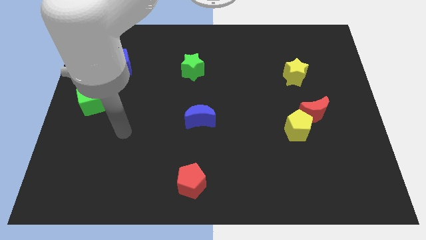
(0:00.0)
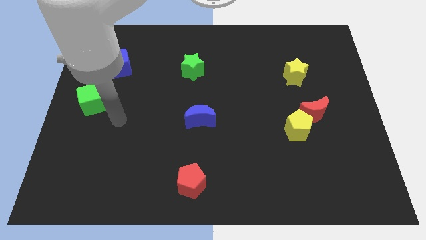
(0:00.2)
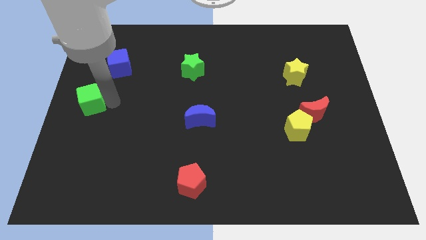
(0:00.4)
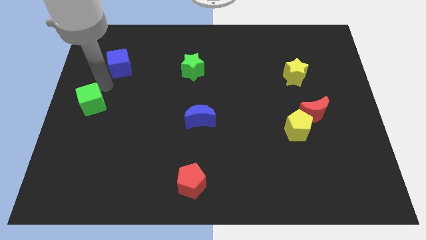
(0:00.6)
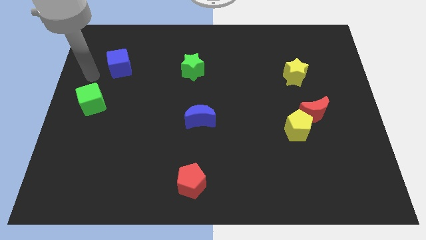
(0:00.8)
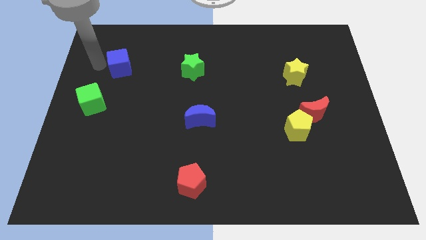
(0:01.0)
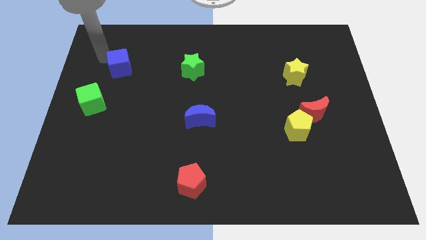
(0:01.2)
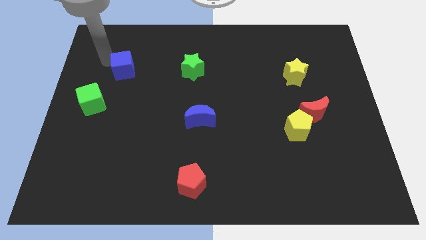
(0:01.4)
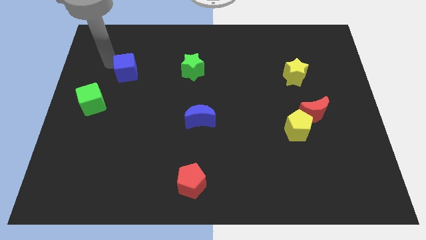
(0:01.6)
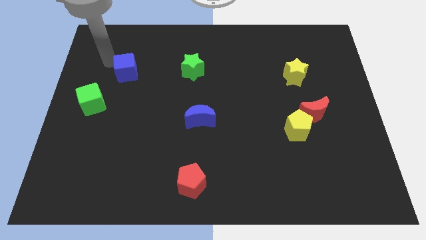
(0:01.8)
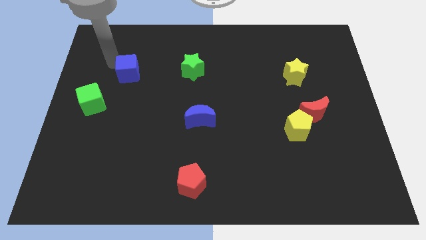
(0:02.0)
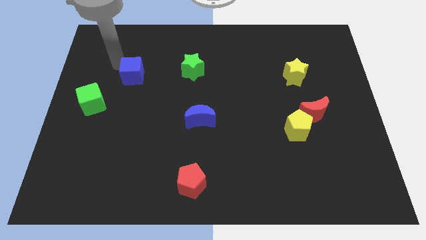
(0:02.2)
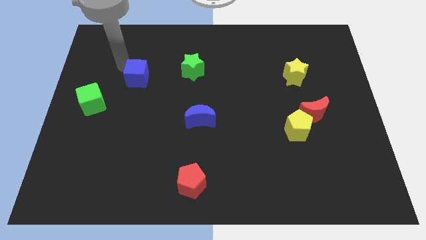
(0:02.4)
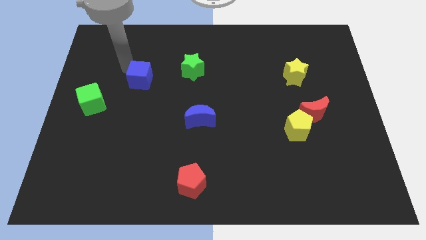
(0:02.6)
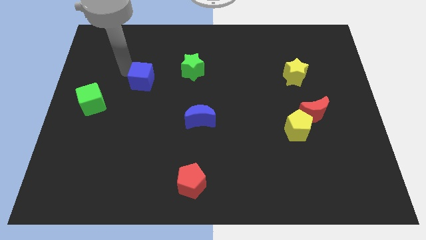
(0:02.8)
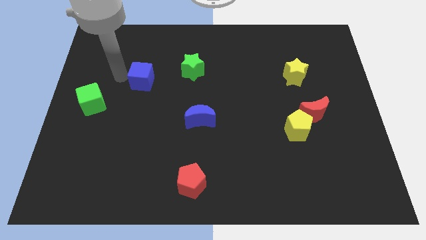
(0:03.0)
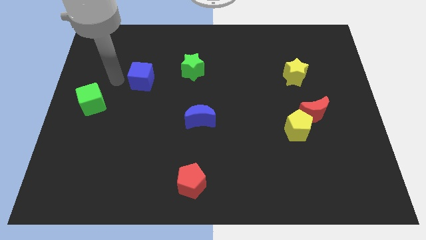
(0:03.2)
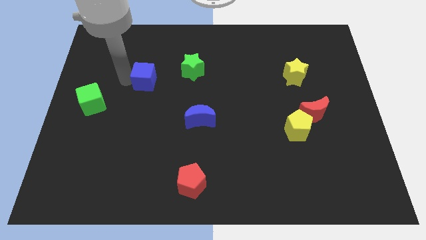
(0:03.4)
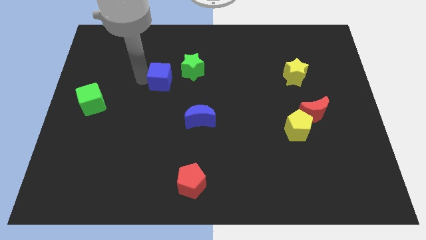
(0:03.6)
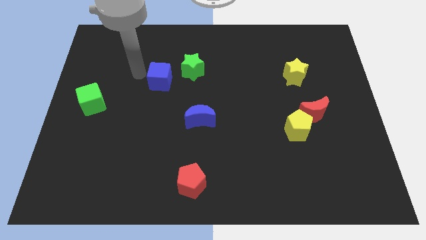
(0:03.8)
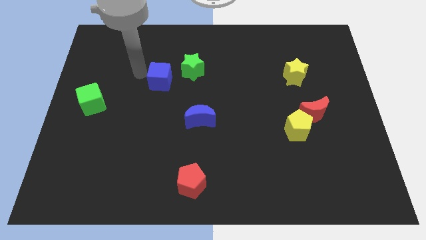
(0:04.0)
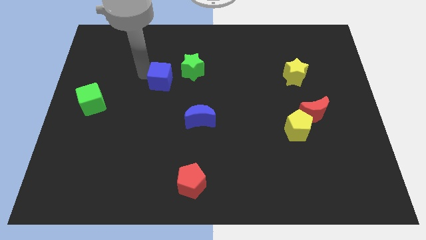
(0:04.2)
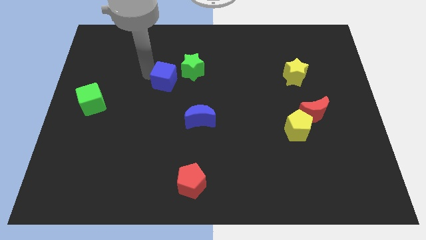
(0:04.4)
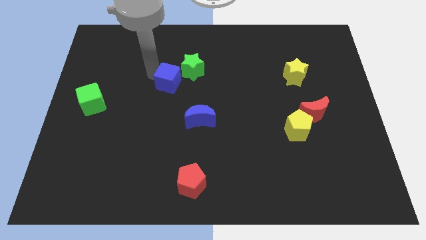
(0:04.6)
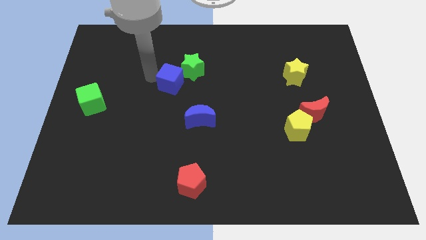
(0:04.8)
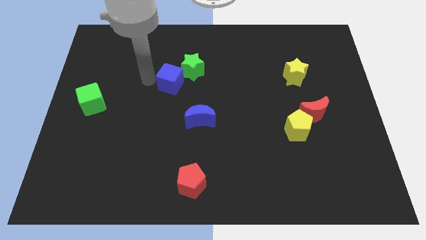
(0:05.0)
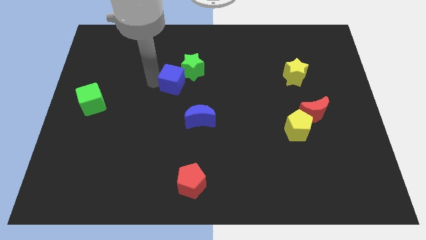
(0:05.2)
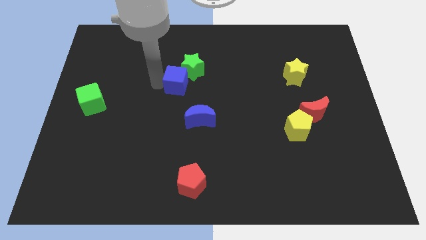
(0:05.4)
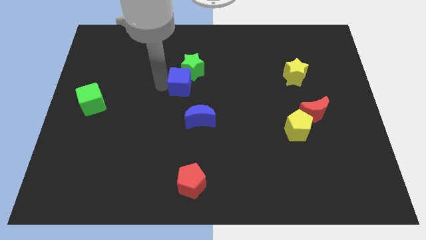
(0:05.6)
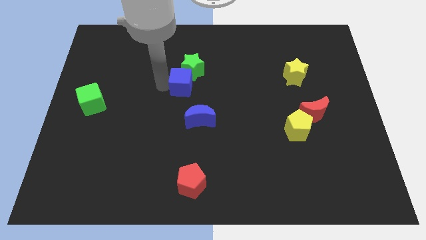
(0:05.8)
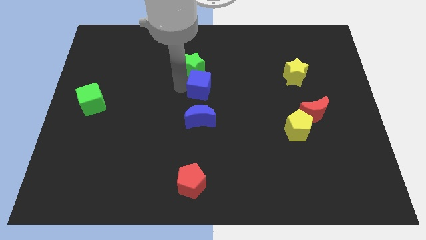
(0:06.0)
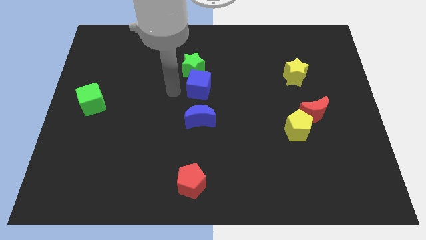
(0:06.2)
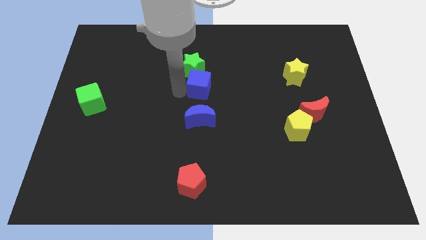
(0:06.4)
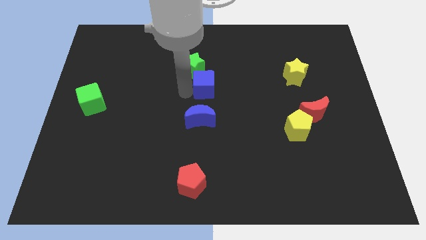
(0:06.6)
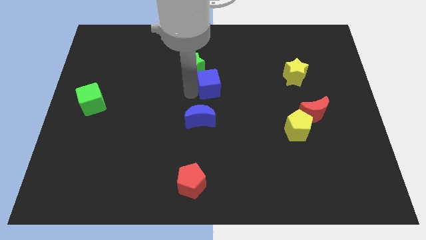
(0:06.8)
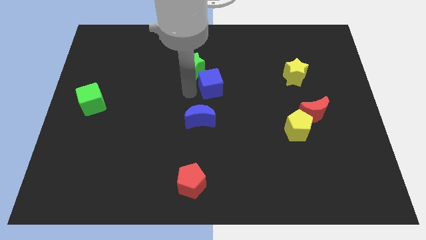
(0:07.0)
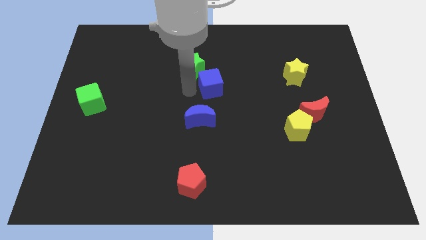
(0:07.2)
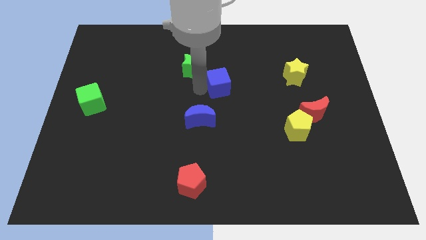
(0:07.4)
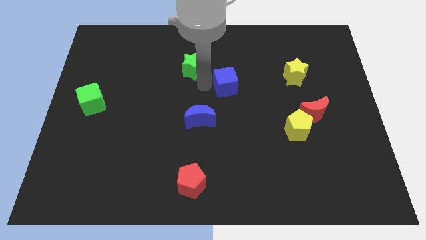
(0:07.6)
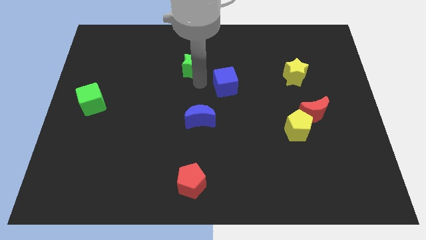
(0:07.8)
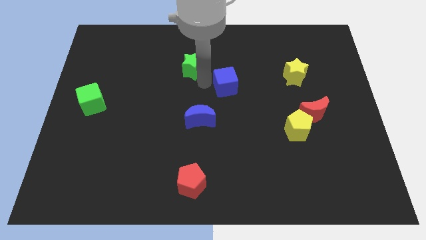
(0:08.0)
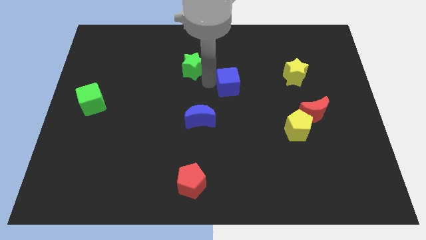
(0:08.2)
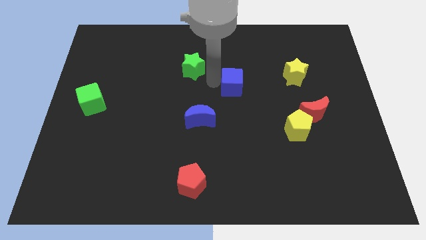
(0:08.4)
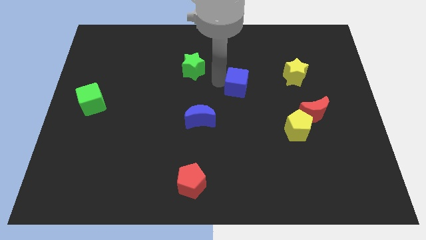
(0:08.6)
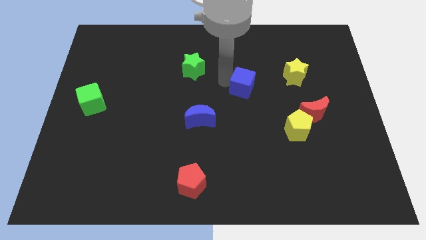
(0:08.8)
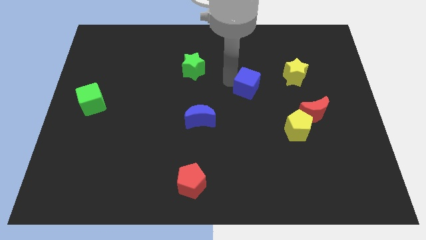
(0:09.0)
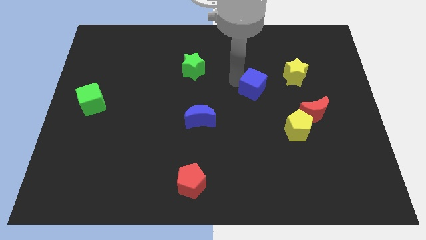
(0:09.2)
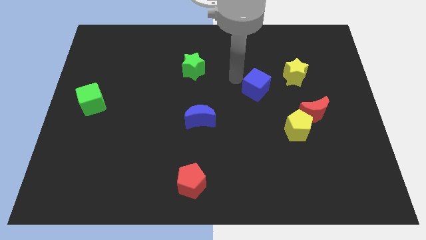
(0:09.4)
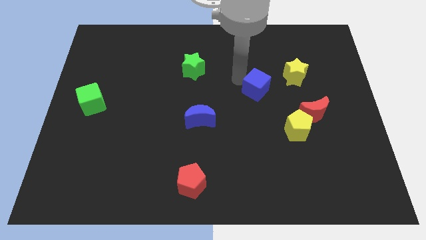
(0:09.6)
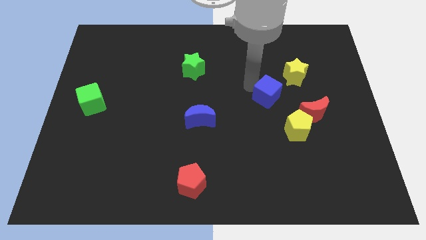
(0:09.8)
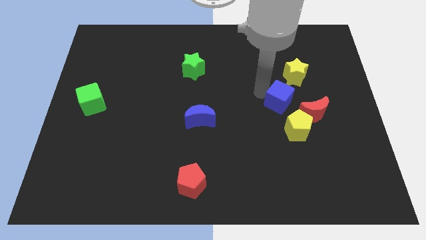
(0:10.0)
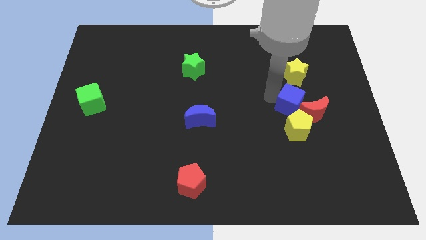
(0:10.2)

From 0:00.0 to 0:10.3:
move the blue cube towards the red moon

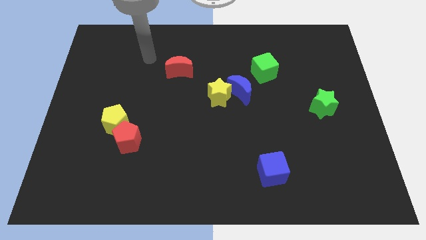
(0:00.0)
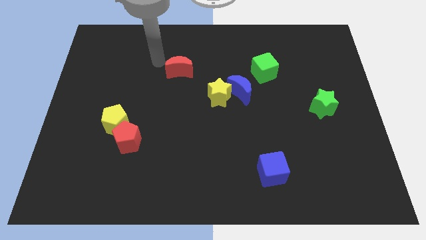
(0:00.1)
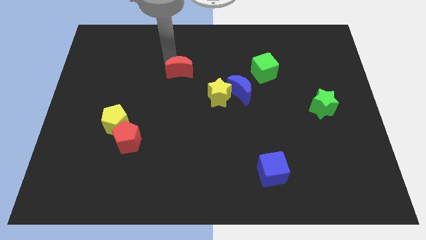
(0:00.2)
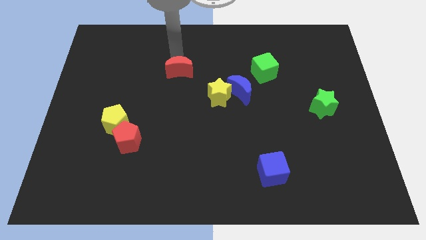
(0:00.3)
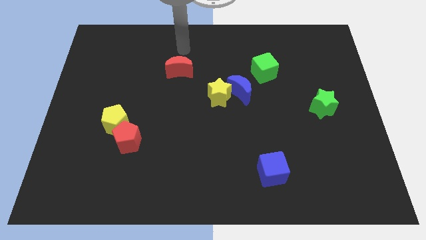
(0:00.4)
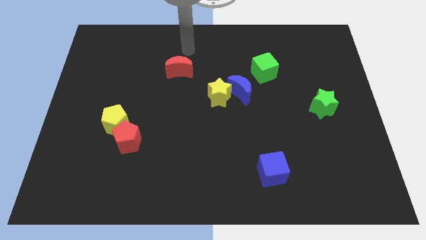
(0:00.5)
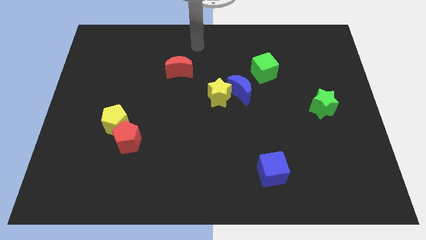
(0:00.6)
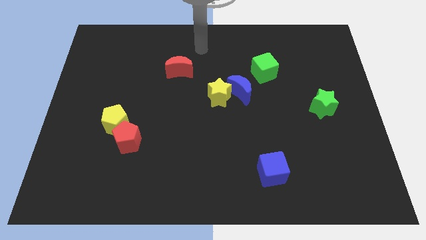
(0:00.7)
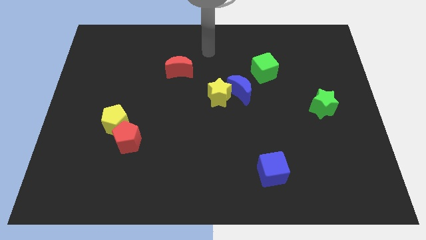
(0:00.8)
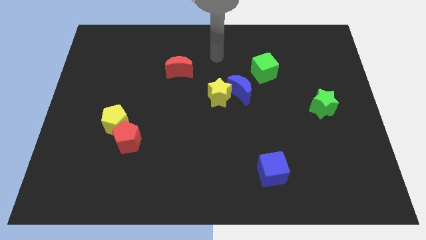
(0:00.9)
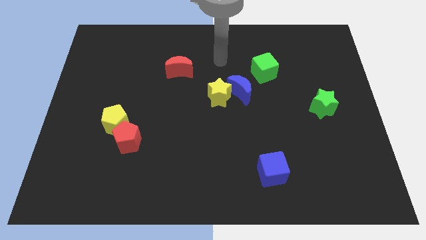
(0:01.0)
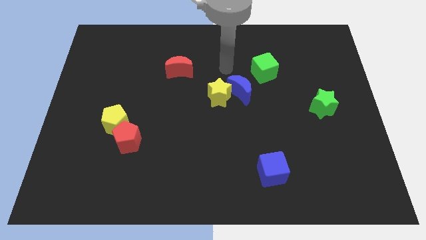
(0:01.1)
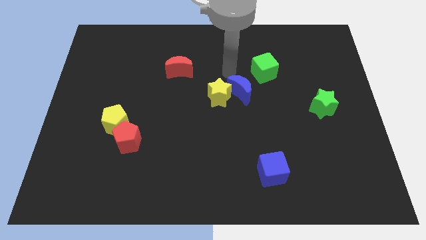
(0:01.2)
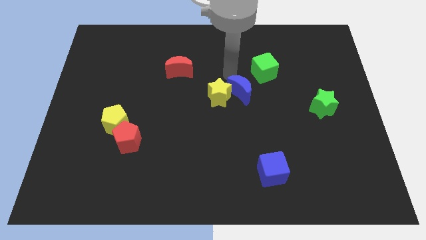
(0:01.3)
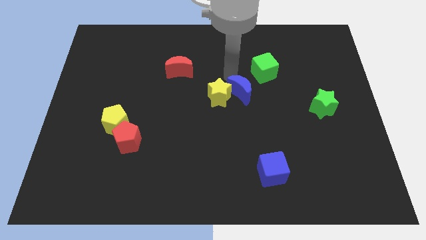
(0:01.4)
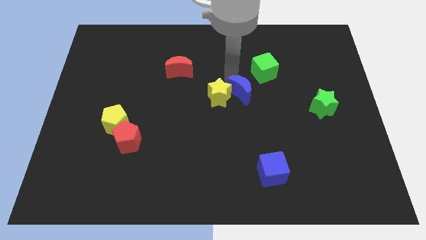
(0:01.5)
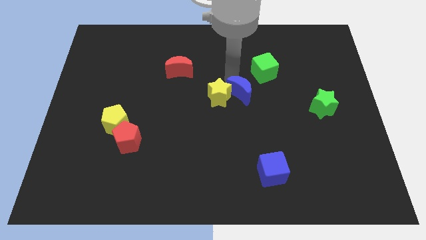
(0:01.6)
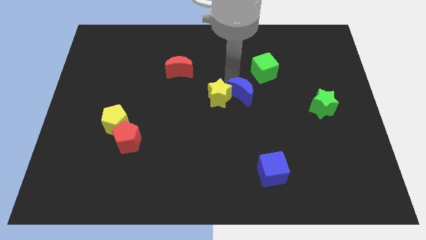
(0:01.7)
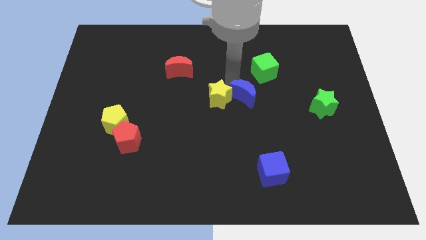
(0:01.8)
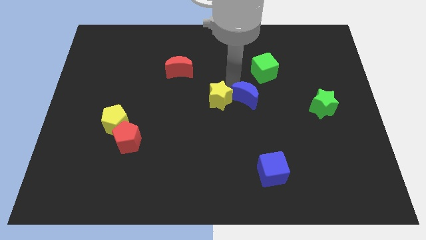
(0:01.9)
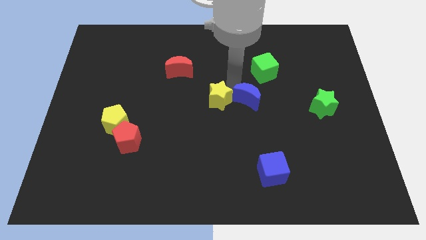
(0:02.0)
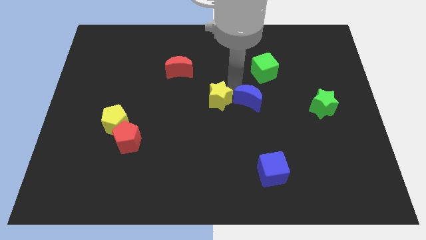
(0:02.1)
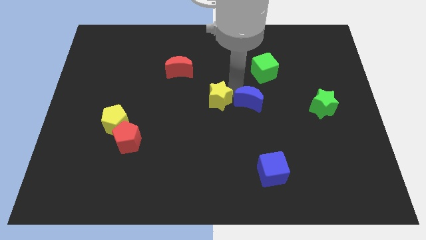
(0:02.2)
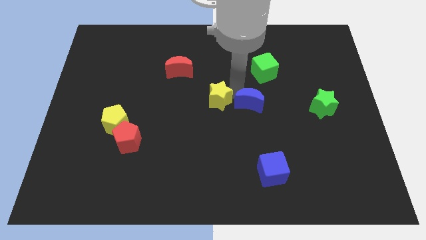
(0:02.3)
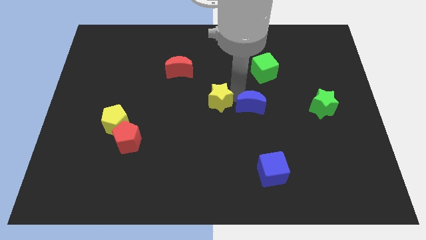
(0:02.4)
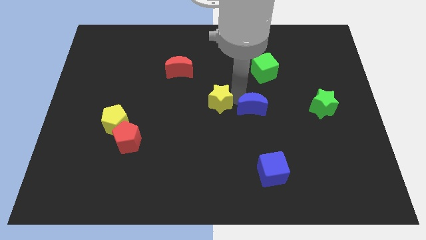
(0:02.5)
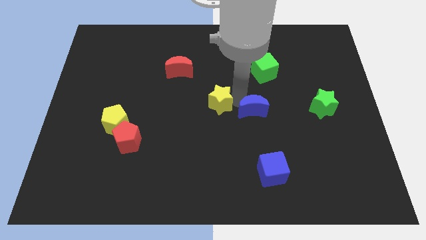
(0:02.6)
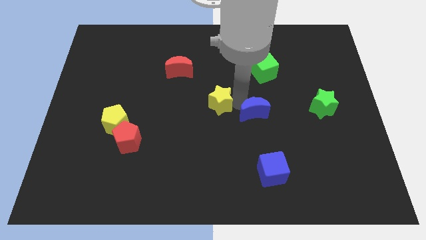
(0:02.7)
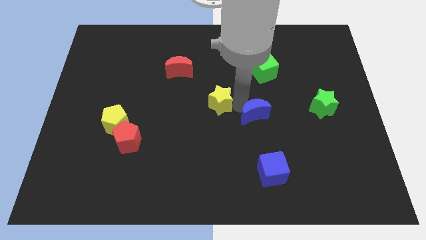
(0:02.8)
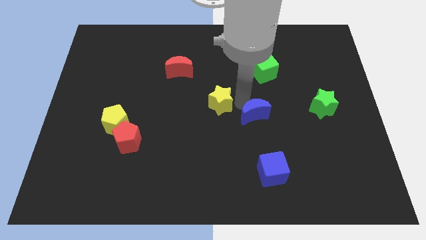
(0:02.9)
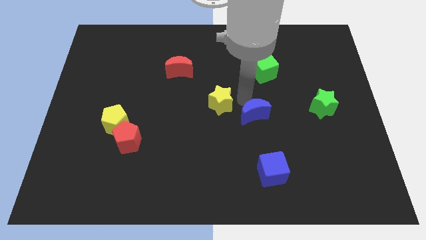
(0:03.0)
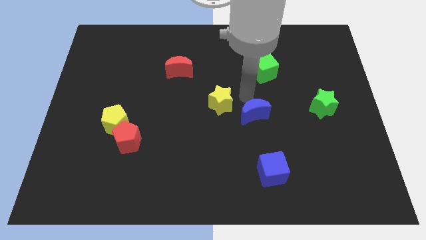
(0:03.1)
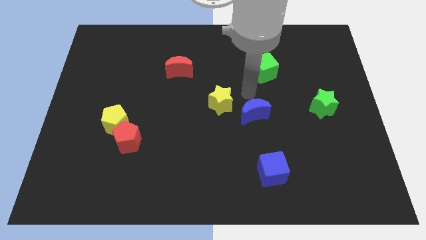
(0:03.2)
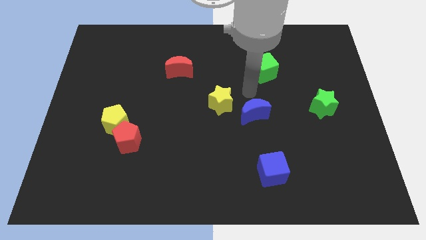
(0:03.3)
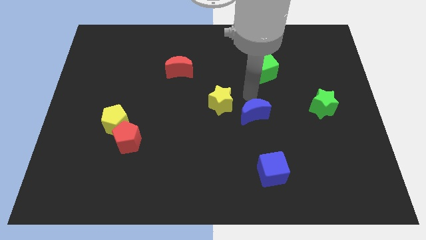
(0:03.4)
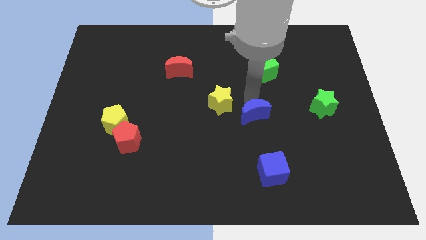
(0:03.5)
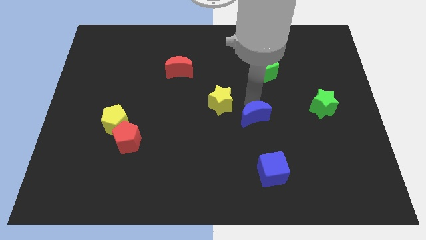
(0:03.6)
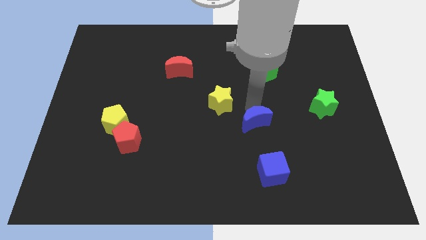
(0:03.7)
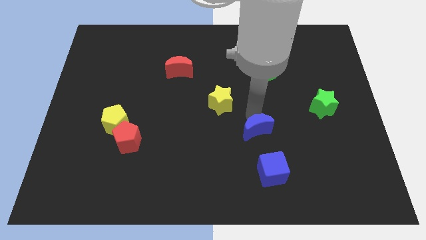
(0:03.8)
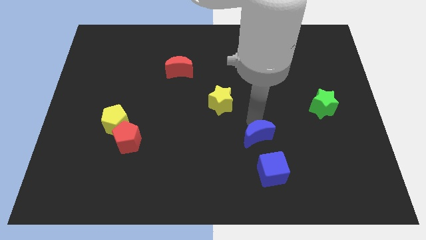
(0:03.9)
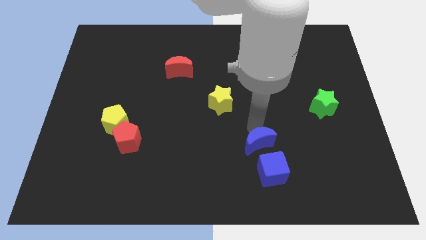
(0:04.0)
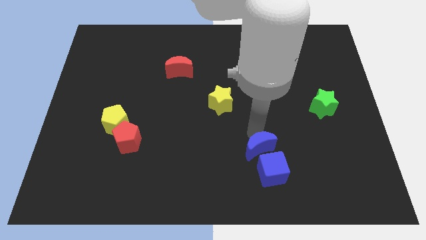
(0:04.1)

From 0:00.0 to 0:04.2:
move the blue moon towards the blue cube
